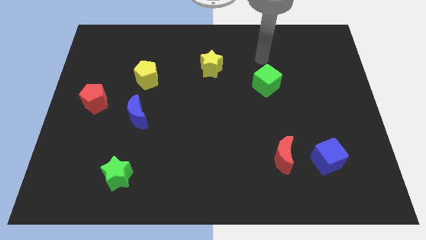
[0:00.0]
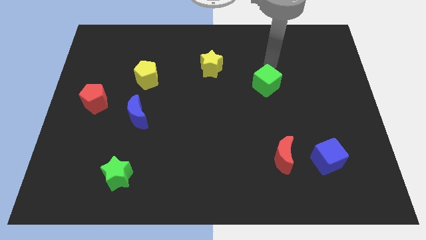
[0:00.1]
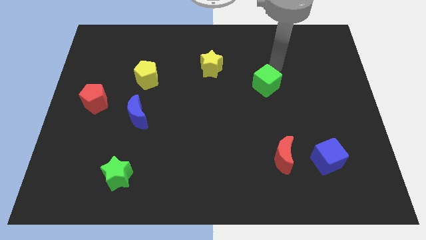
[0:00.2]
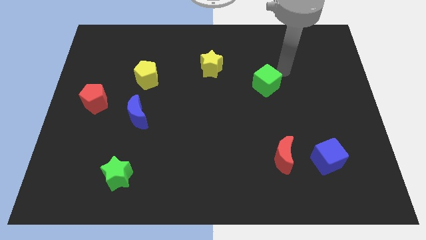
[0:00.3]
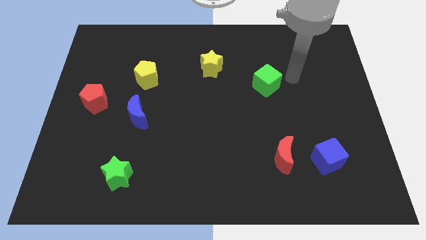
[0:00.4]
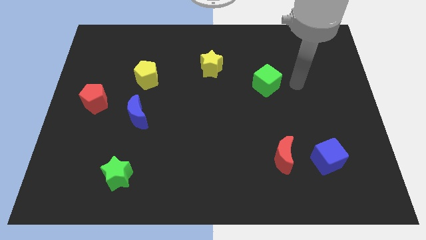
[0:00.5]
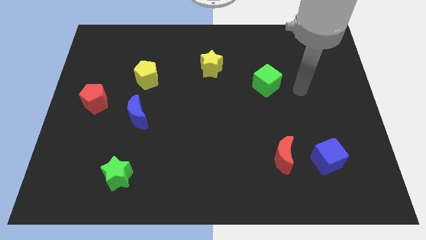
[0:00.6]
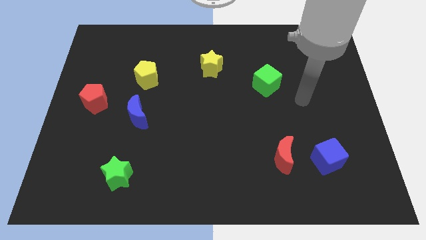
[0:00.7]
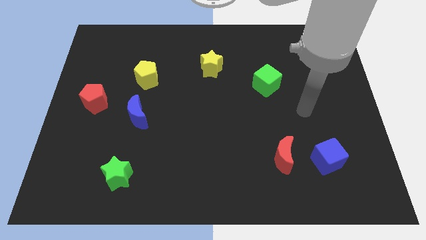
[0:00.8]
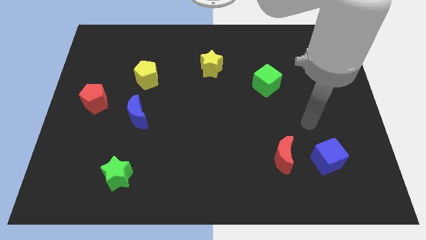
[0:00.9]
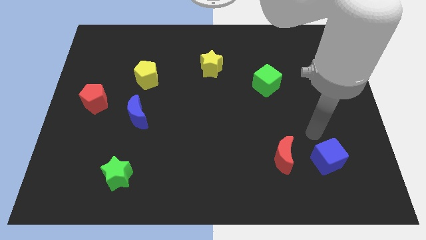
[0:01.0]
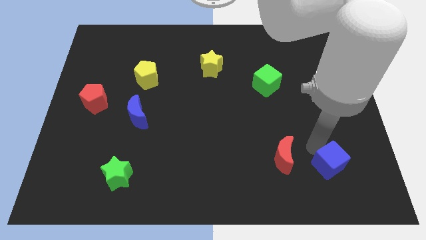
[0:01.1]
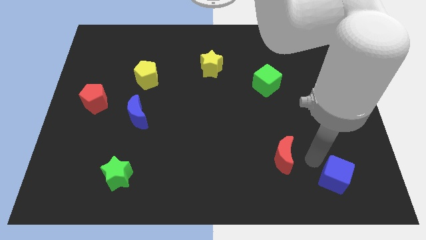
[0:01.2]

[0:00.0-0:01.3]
move the red moon away from the blue cube

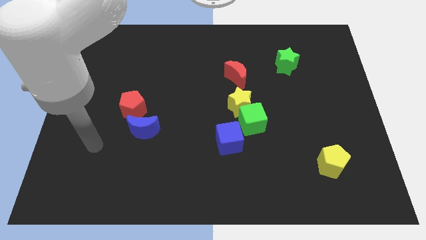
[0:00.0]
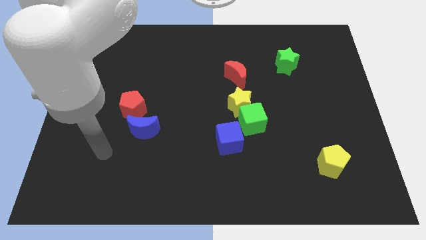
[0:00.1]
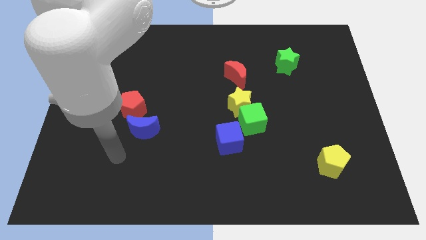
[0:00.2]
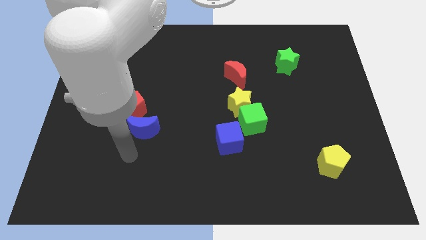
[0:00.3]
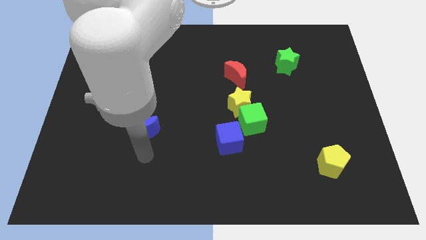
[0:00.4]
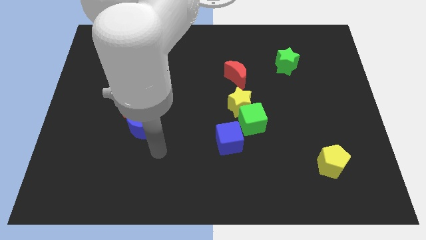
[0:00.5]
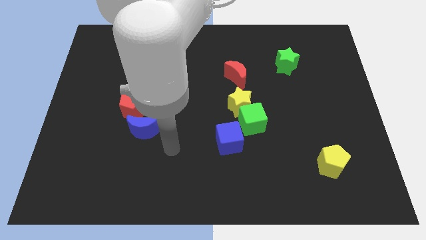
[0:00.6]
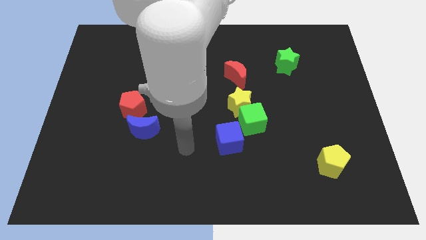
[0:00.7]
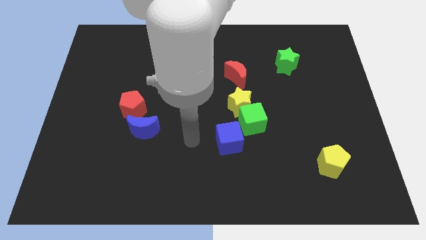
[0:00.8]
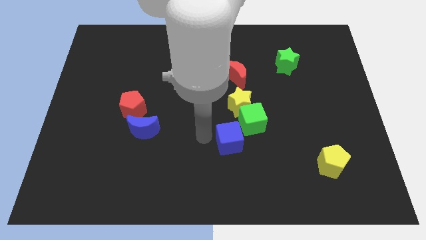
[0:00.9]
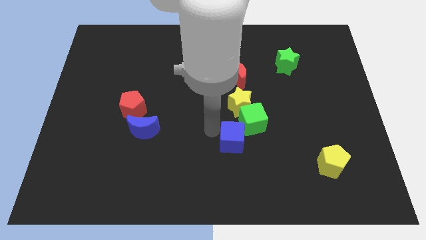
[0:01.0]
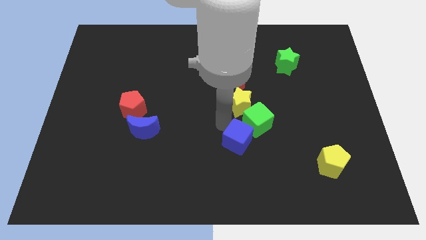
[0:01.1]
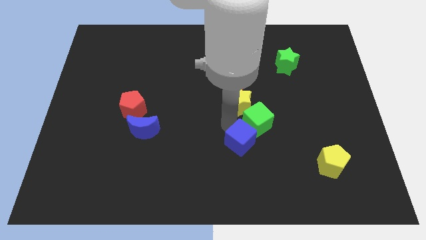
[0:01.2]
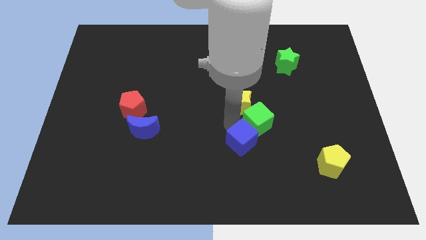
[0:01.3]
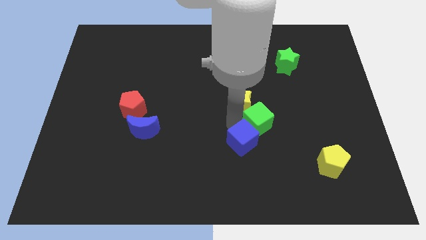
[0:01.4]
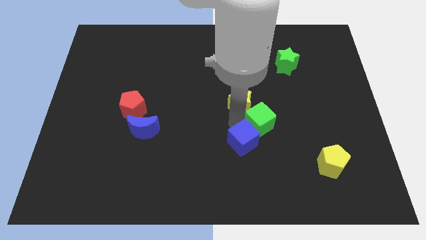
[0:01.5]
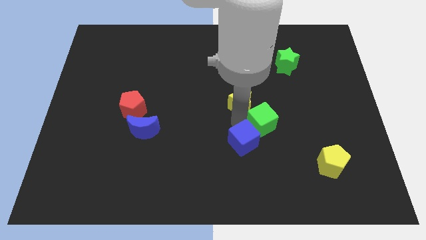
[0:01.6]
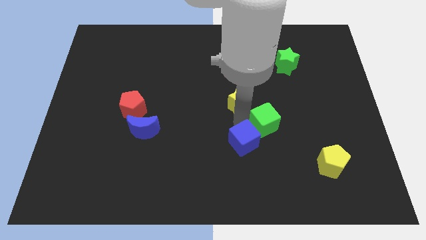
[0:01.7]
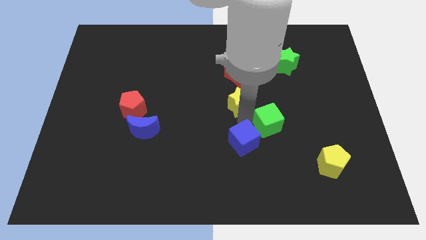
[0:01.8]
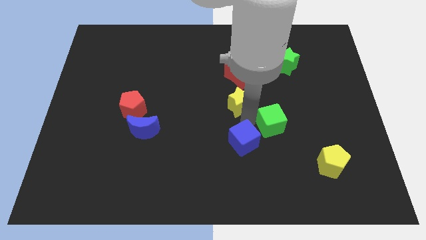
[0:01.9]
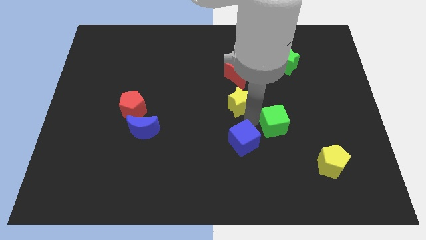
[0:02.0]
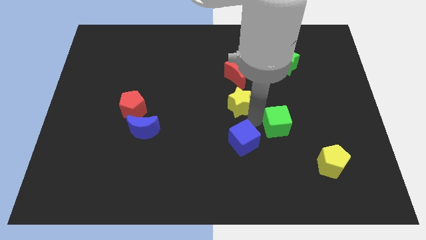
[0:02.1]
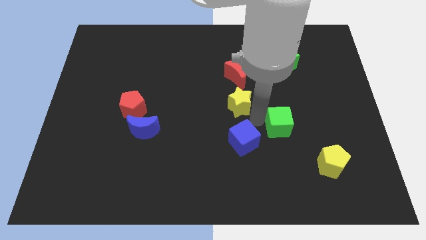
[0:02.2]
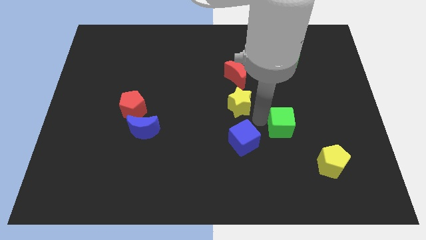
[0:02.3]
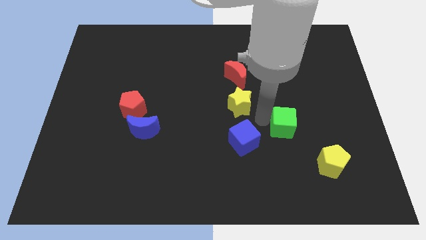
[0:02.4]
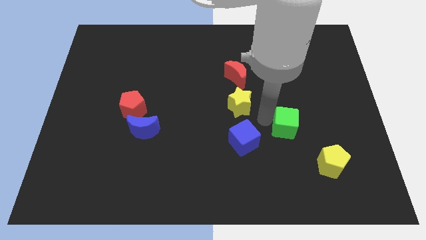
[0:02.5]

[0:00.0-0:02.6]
separate the green cube from the yellow star and blue cube

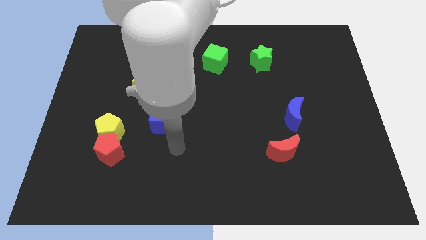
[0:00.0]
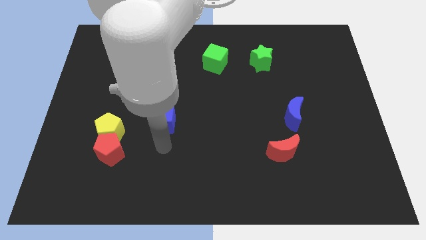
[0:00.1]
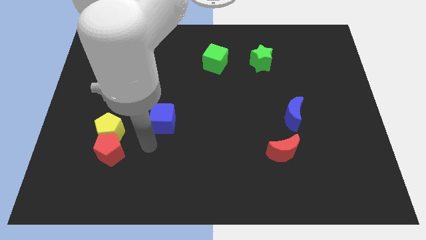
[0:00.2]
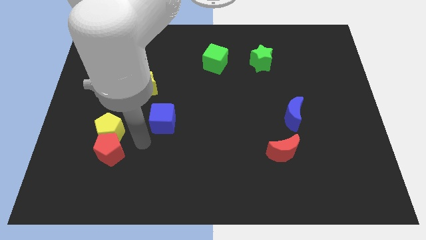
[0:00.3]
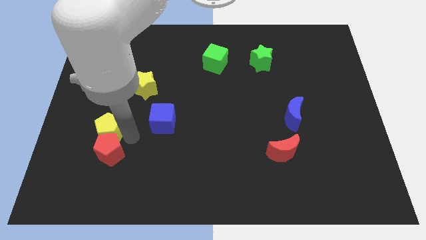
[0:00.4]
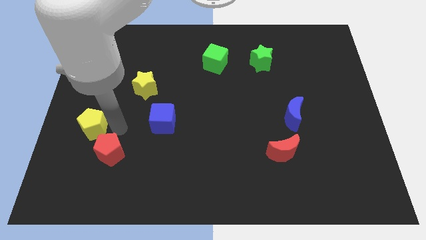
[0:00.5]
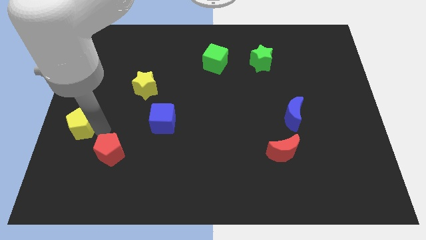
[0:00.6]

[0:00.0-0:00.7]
pull the red pentagon apart from the yellow pentagon

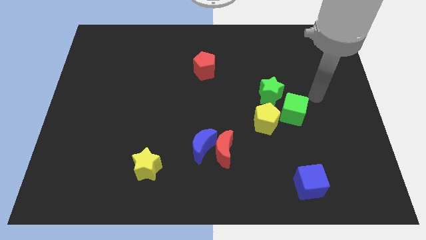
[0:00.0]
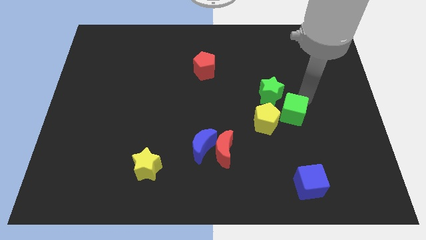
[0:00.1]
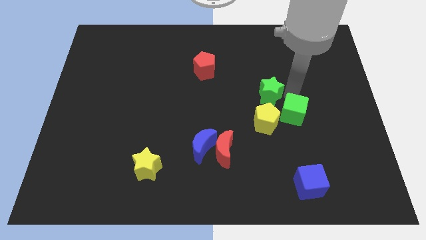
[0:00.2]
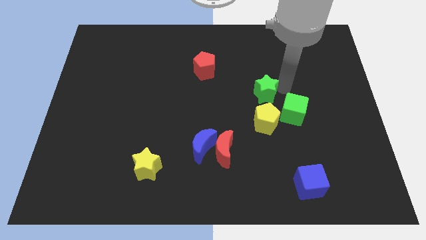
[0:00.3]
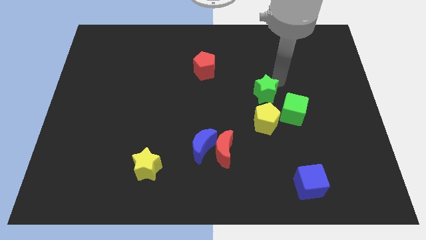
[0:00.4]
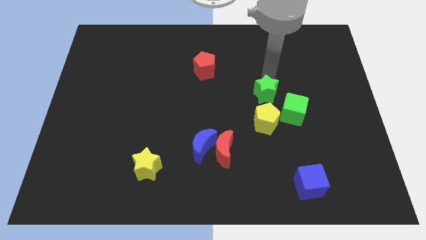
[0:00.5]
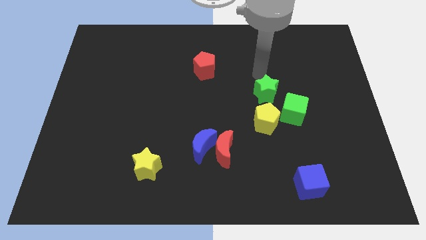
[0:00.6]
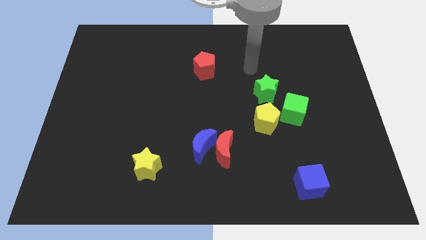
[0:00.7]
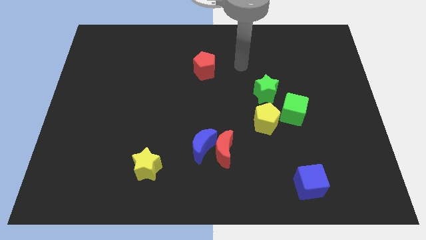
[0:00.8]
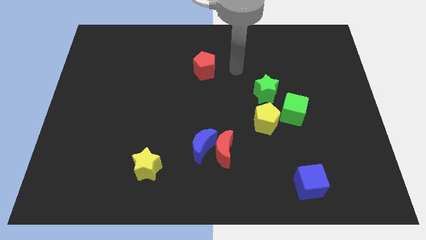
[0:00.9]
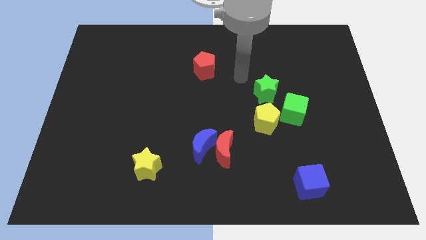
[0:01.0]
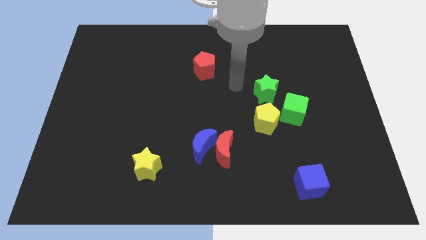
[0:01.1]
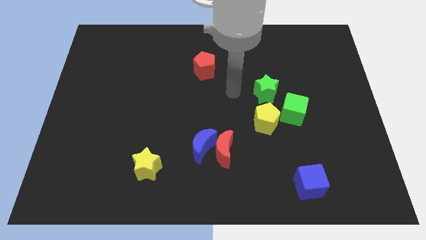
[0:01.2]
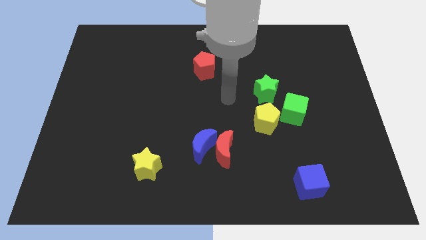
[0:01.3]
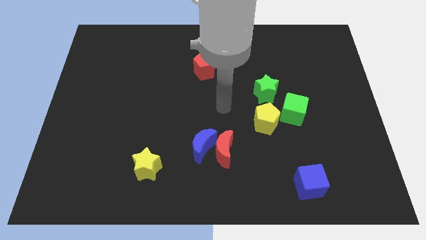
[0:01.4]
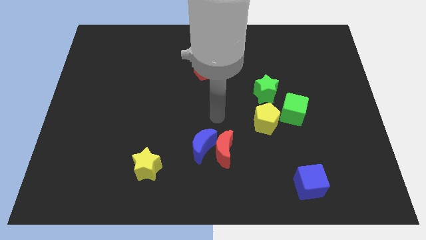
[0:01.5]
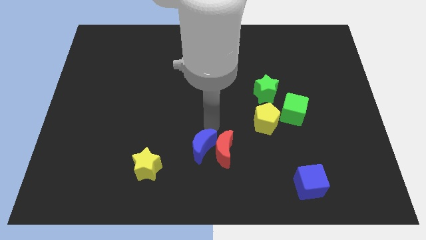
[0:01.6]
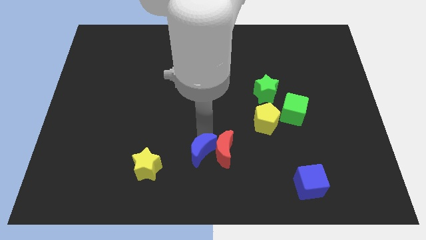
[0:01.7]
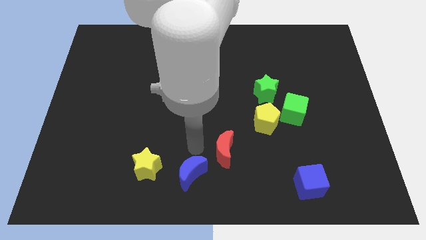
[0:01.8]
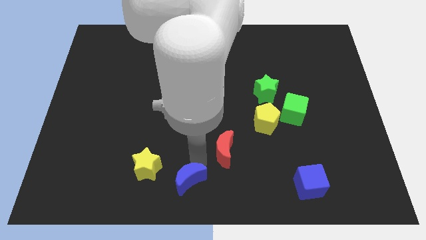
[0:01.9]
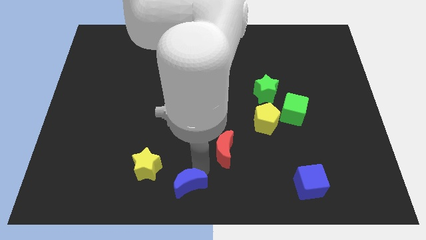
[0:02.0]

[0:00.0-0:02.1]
pull the red moon apart from the blue moon

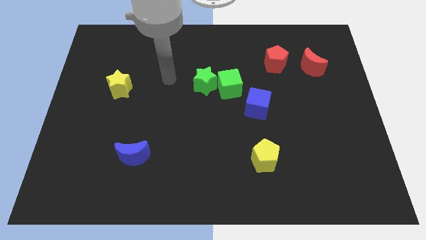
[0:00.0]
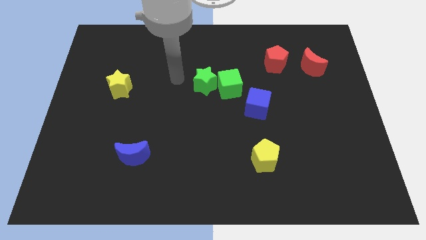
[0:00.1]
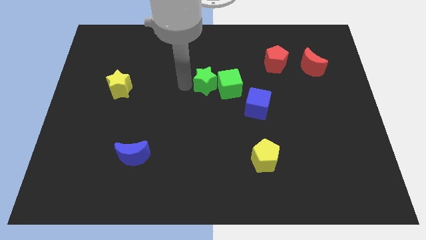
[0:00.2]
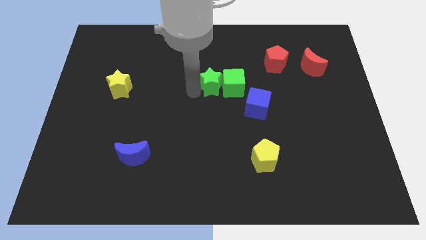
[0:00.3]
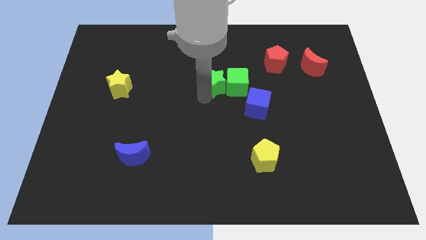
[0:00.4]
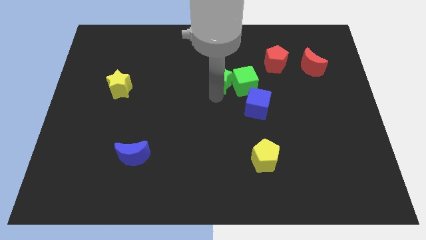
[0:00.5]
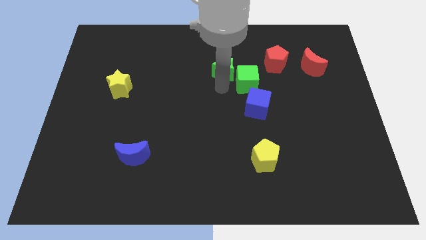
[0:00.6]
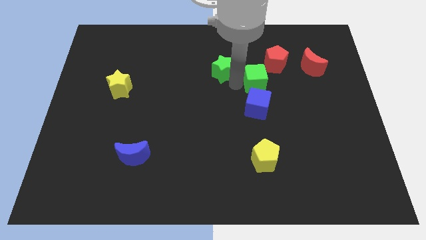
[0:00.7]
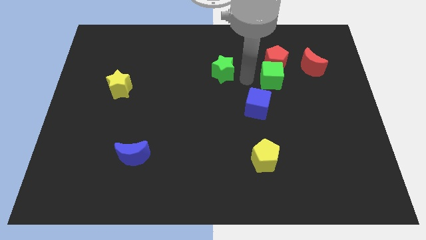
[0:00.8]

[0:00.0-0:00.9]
pull the green star apart from the green cube

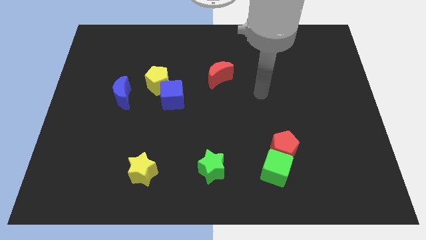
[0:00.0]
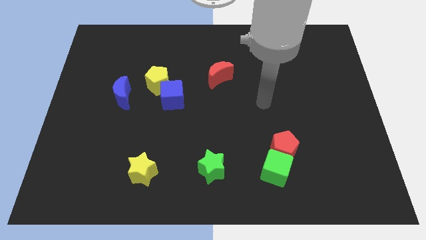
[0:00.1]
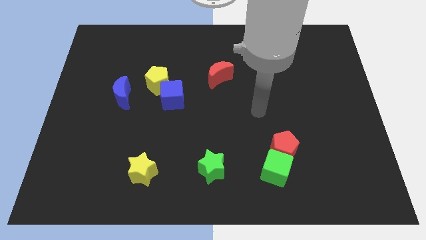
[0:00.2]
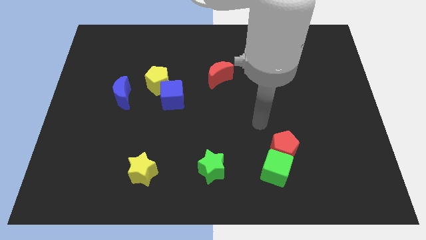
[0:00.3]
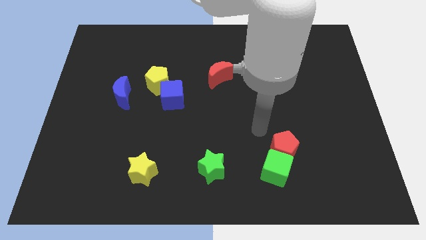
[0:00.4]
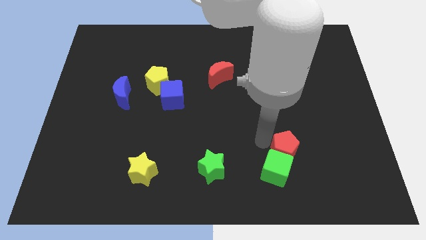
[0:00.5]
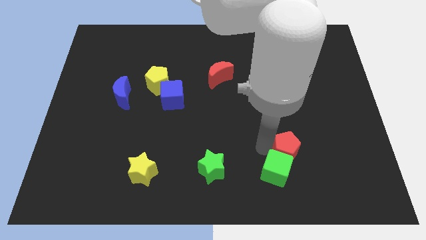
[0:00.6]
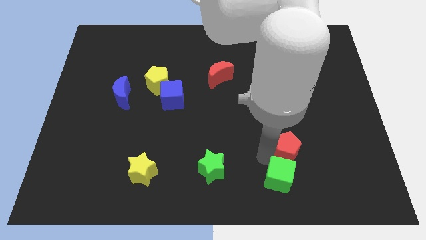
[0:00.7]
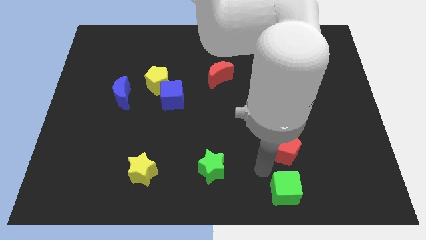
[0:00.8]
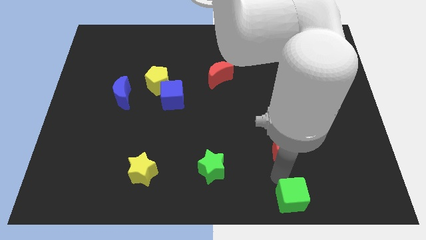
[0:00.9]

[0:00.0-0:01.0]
move the red pentagon away from the green cube

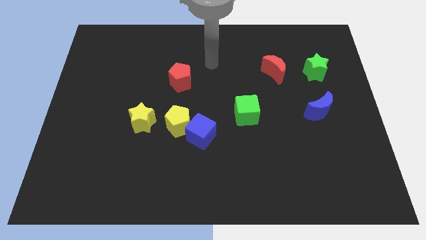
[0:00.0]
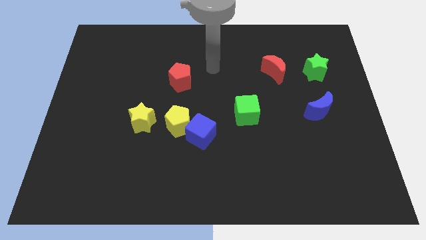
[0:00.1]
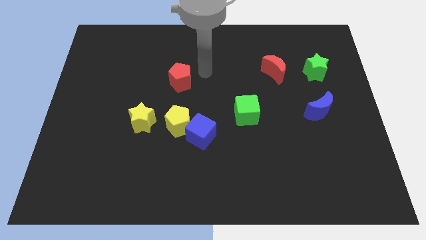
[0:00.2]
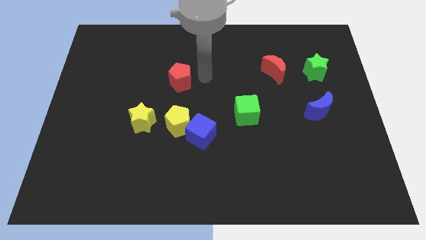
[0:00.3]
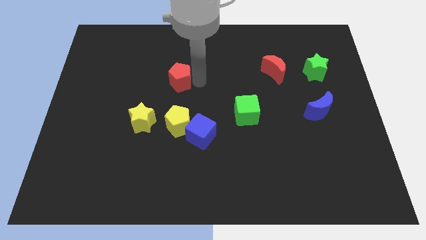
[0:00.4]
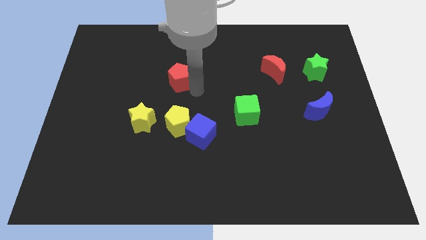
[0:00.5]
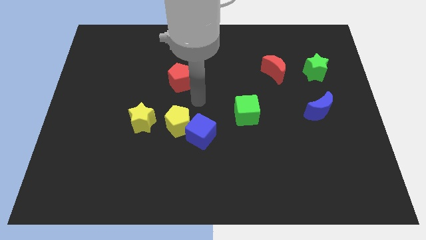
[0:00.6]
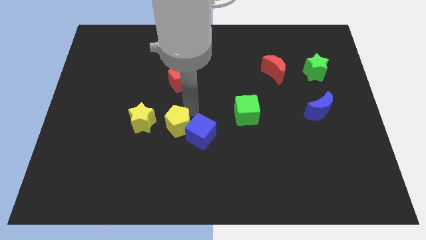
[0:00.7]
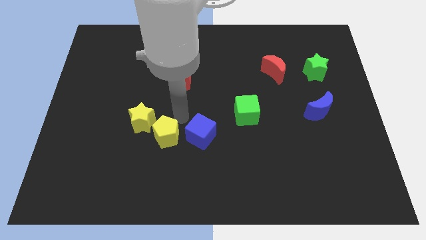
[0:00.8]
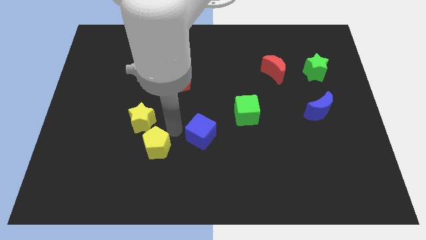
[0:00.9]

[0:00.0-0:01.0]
move the blue cube away from the yellow pentagon
